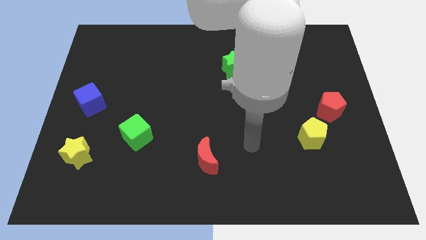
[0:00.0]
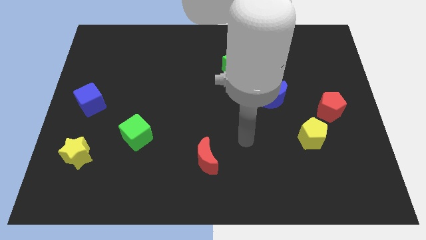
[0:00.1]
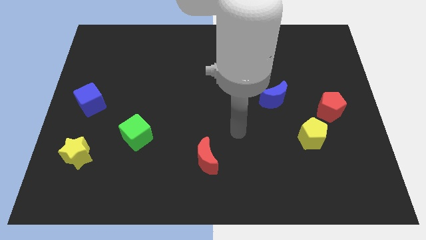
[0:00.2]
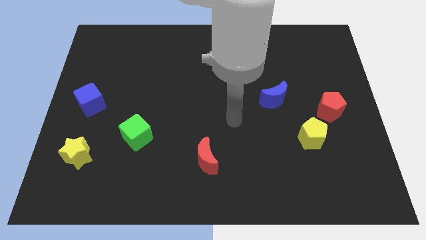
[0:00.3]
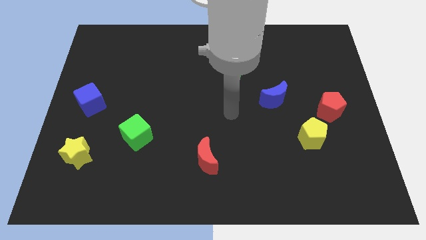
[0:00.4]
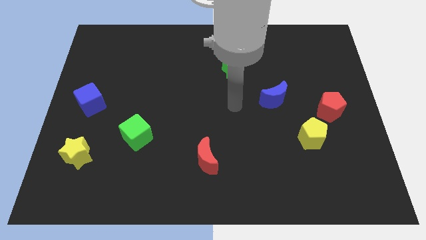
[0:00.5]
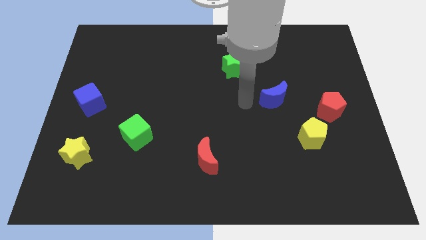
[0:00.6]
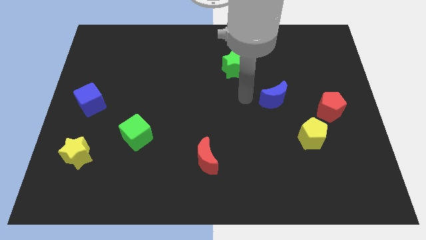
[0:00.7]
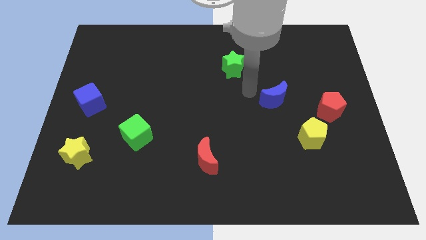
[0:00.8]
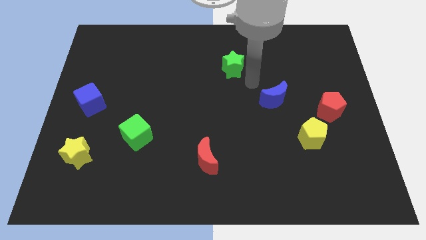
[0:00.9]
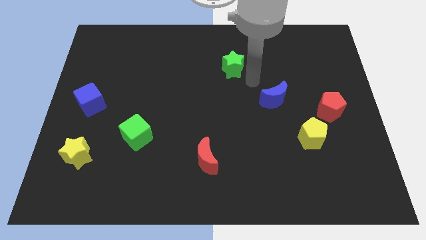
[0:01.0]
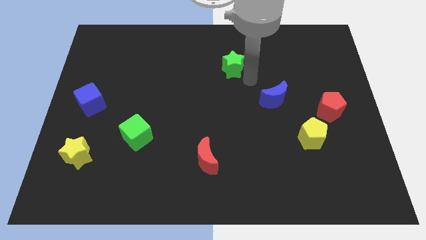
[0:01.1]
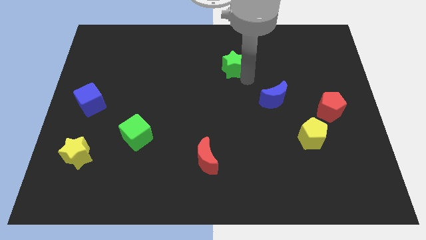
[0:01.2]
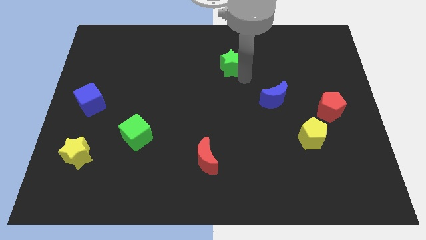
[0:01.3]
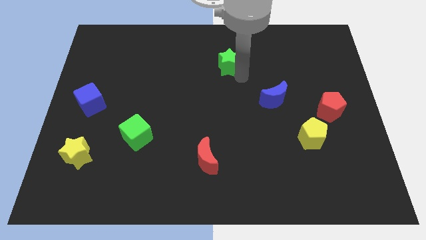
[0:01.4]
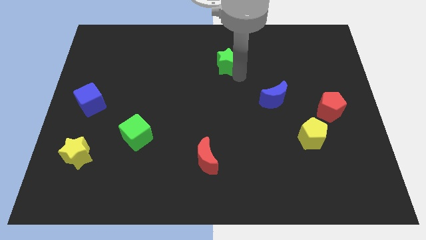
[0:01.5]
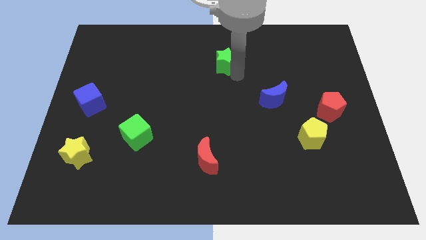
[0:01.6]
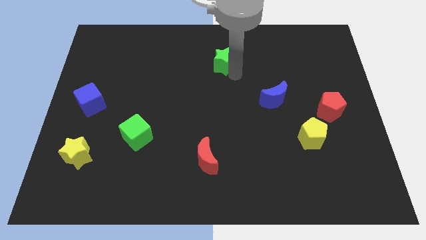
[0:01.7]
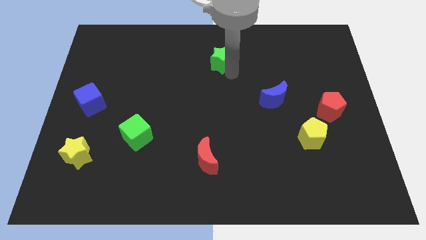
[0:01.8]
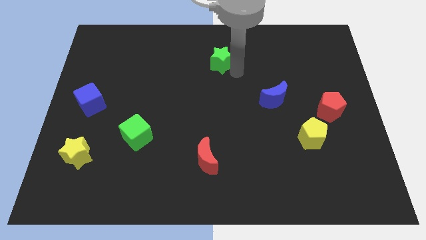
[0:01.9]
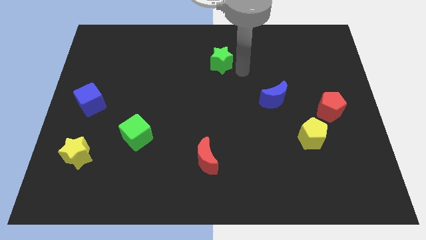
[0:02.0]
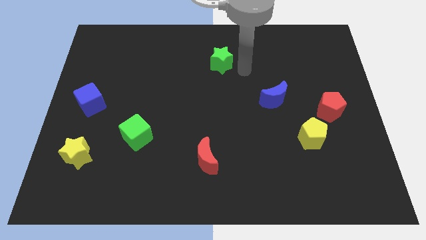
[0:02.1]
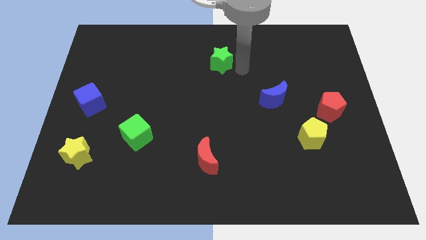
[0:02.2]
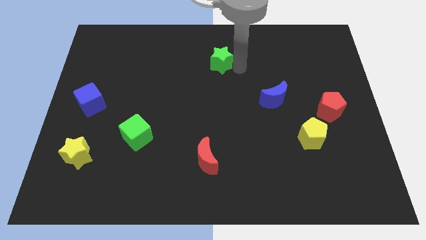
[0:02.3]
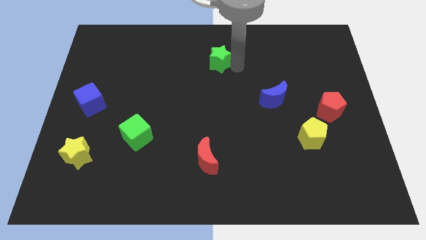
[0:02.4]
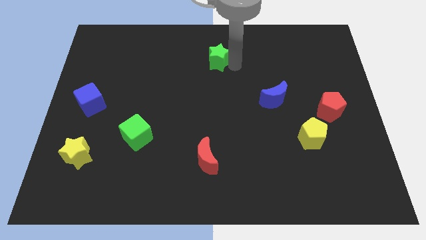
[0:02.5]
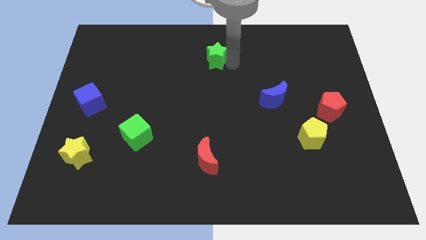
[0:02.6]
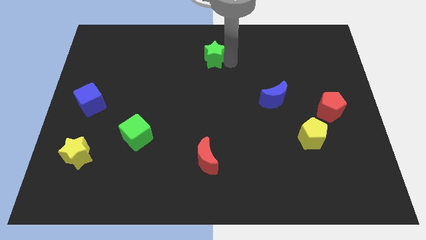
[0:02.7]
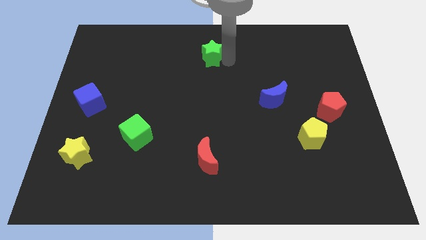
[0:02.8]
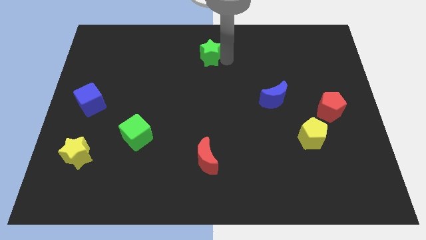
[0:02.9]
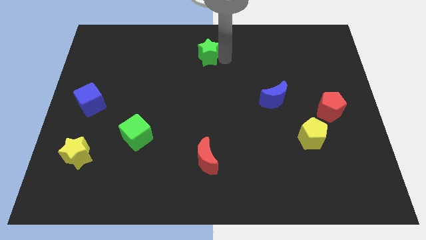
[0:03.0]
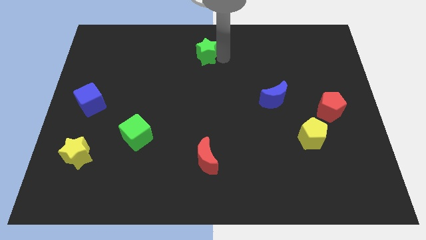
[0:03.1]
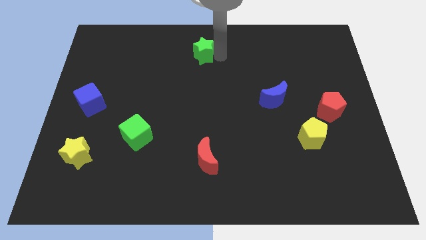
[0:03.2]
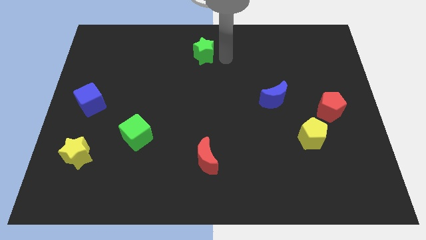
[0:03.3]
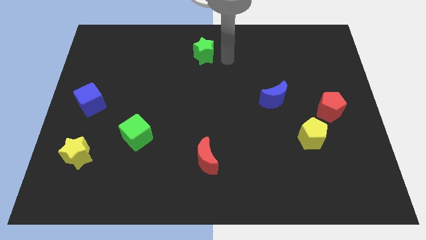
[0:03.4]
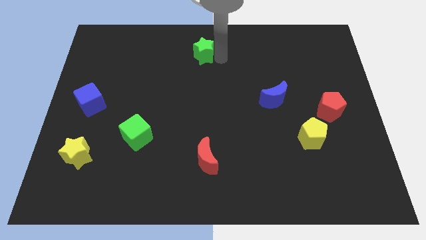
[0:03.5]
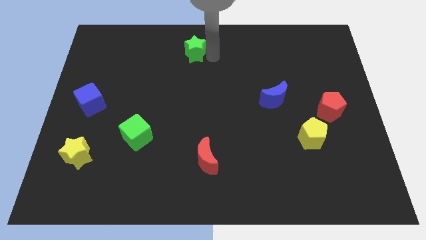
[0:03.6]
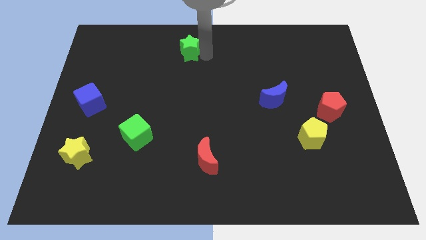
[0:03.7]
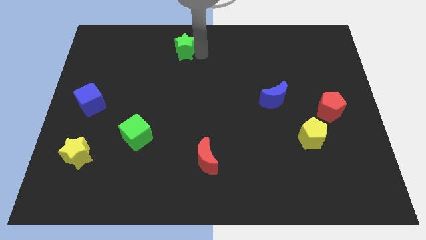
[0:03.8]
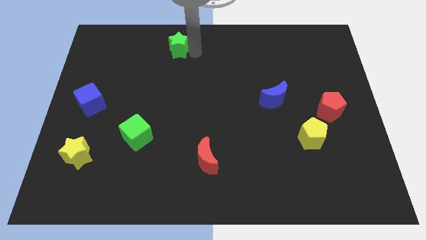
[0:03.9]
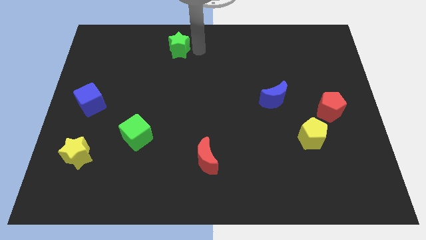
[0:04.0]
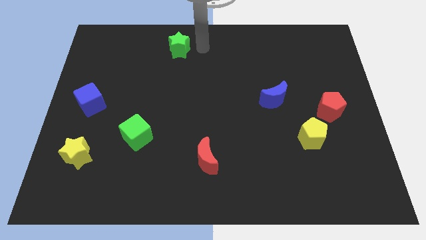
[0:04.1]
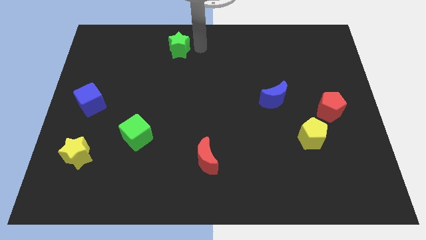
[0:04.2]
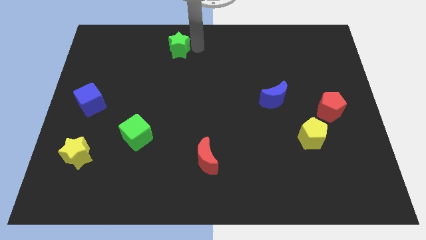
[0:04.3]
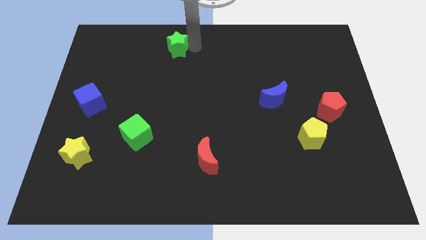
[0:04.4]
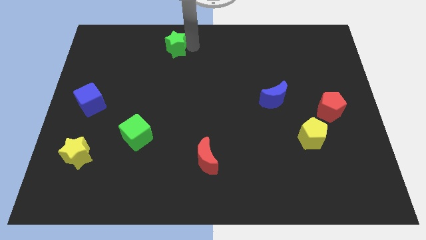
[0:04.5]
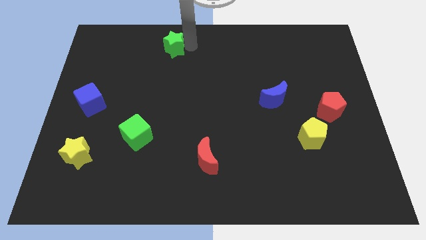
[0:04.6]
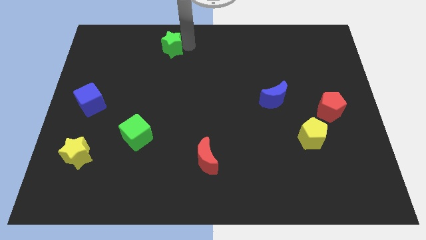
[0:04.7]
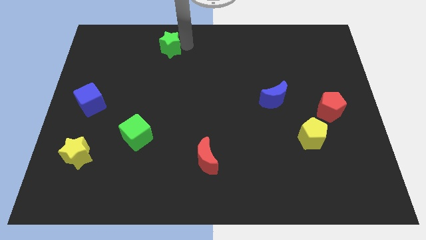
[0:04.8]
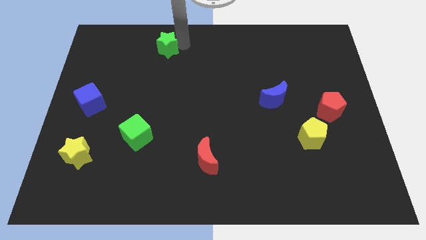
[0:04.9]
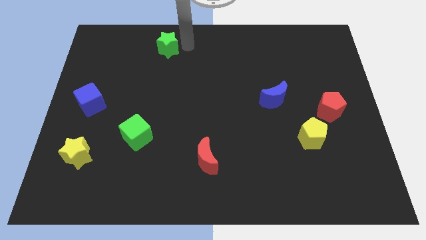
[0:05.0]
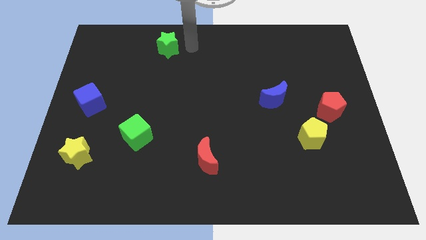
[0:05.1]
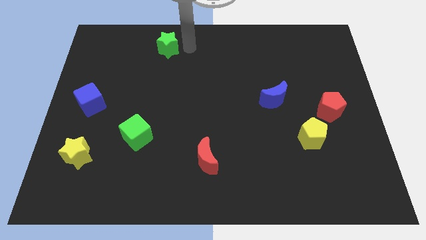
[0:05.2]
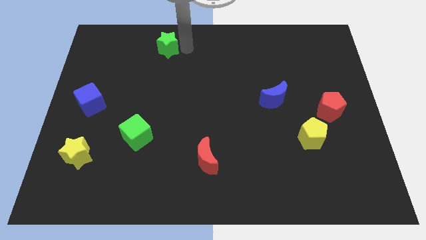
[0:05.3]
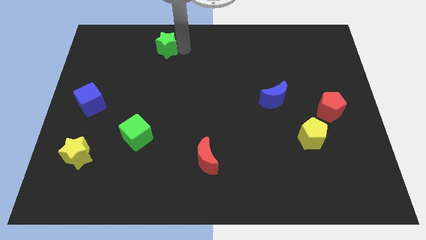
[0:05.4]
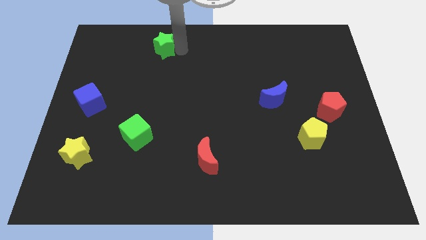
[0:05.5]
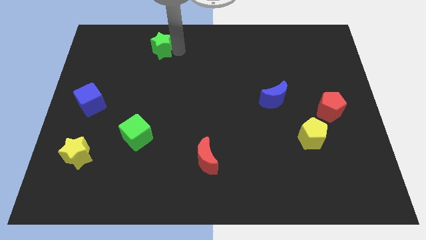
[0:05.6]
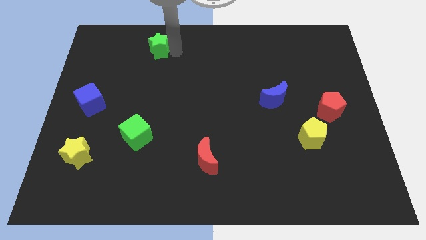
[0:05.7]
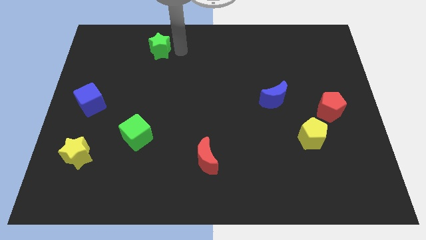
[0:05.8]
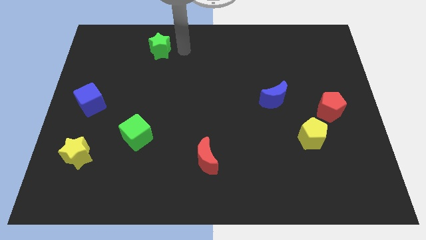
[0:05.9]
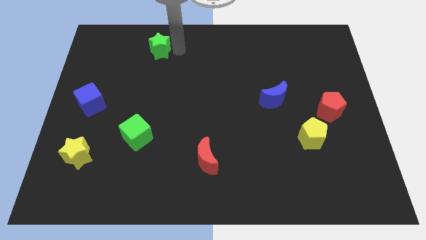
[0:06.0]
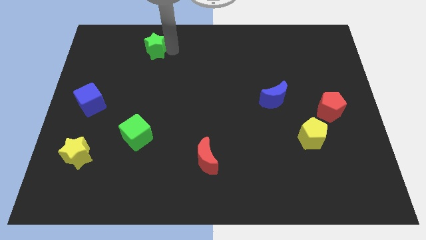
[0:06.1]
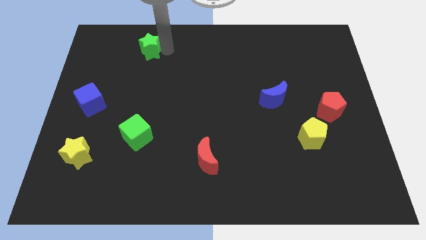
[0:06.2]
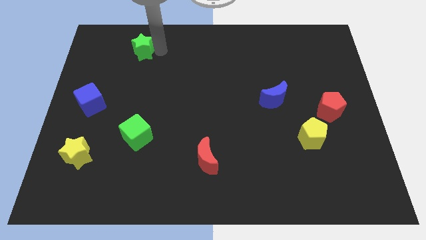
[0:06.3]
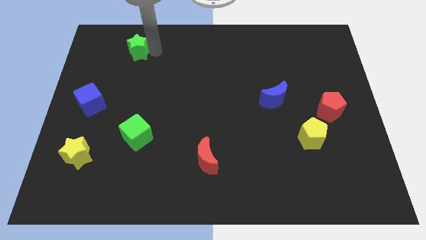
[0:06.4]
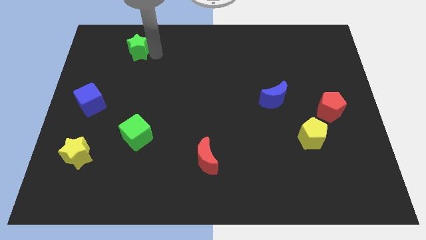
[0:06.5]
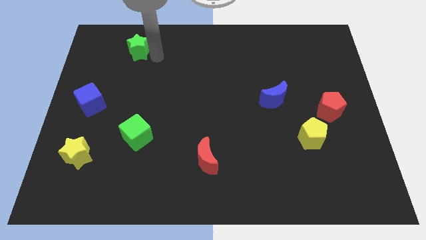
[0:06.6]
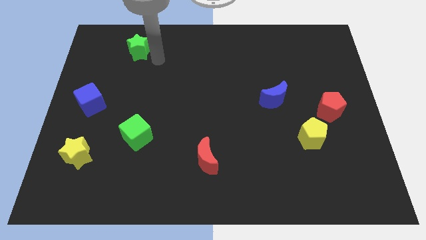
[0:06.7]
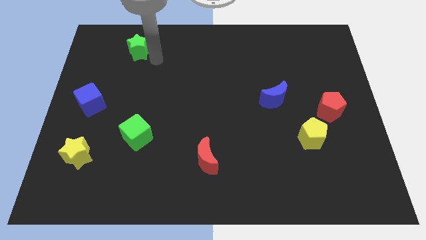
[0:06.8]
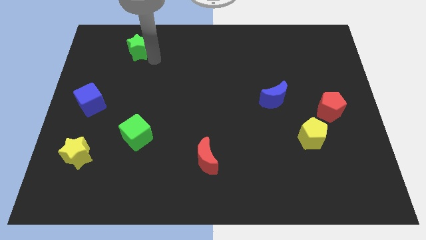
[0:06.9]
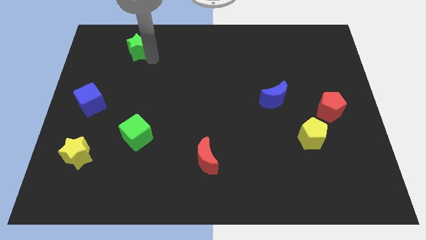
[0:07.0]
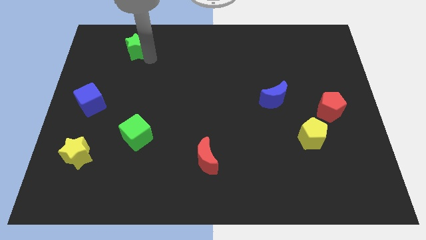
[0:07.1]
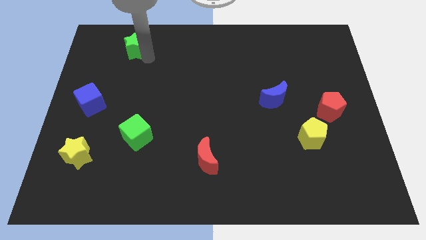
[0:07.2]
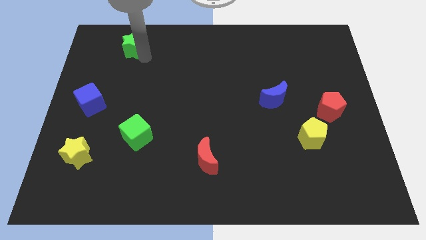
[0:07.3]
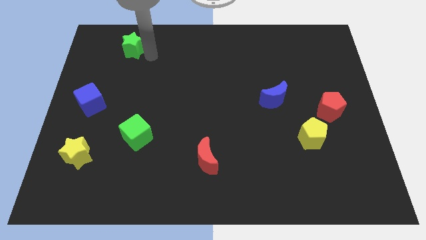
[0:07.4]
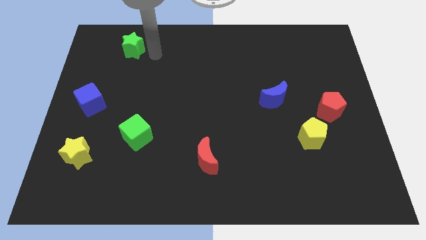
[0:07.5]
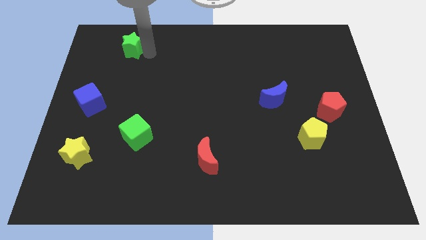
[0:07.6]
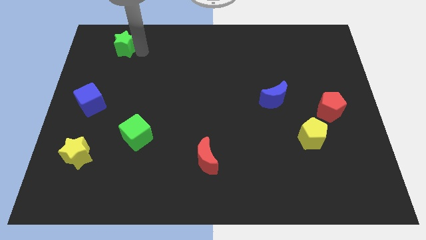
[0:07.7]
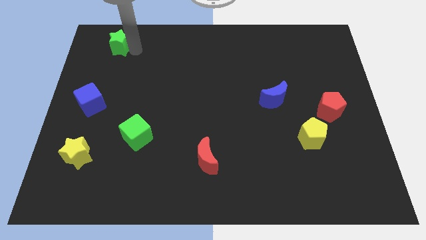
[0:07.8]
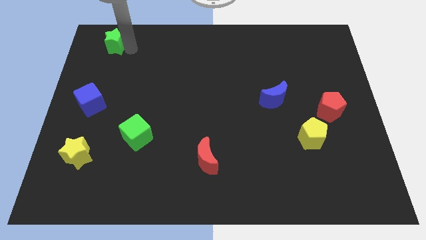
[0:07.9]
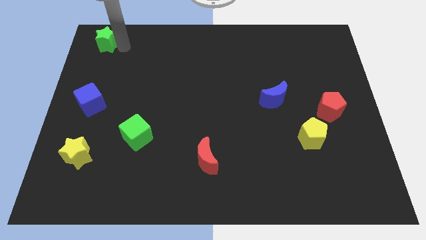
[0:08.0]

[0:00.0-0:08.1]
move the green star to the top left corner

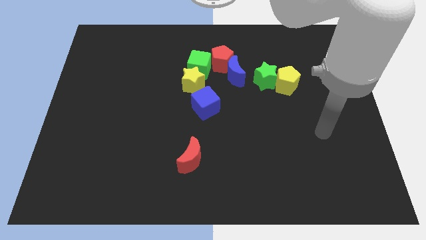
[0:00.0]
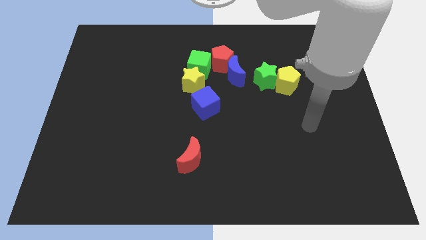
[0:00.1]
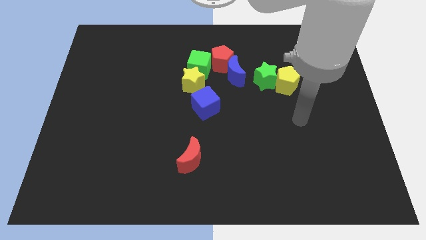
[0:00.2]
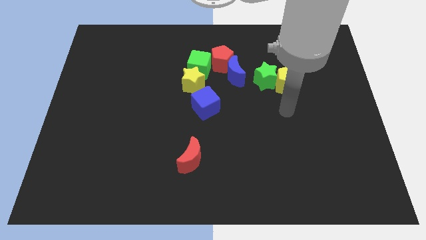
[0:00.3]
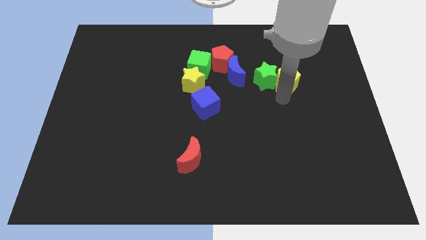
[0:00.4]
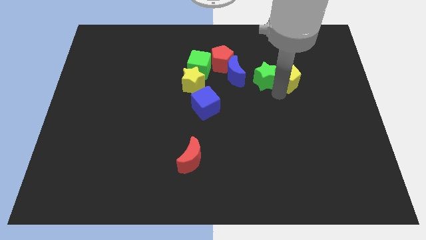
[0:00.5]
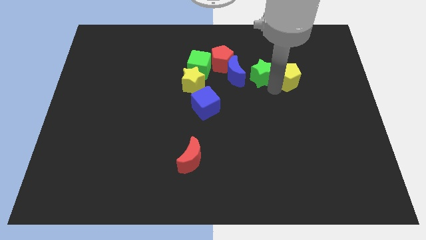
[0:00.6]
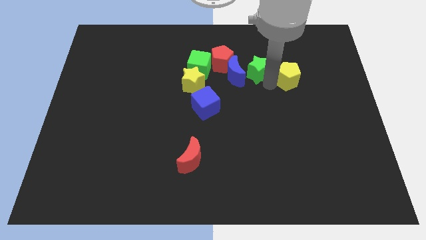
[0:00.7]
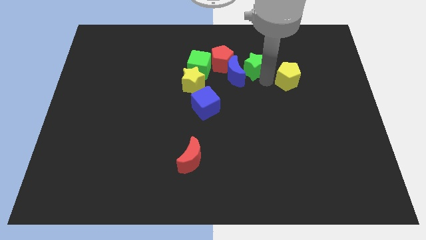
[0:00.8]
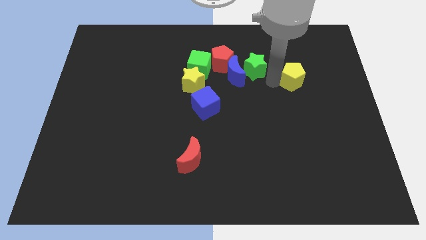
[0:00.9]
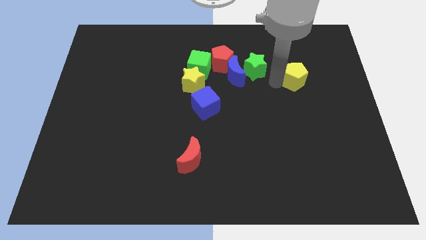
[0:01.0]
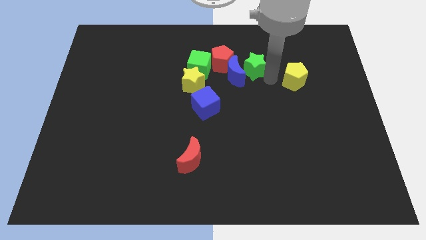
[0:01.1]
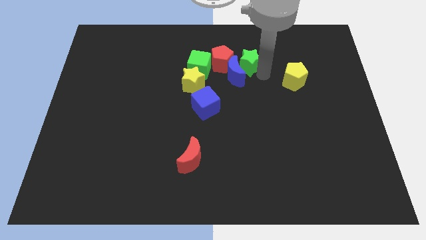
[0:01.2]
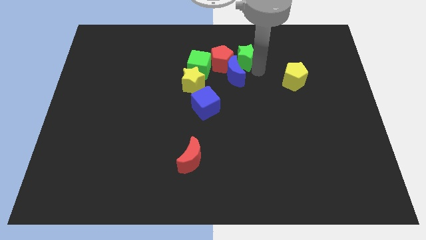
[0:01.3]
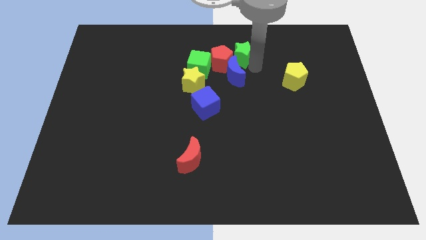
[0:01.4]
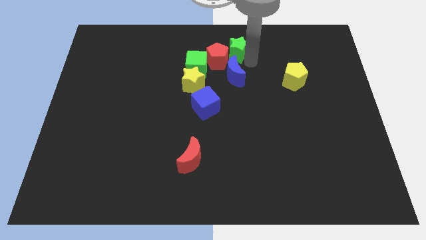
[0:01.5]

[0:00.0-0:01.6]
move the green star to the towards your base
